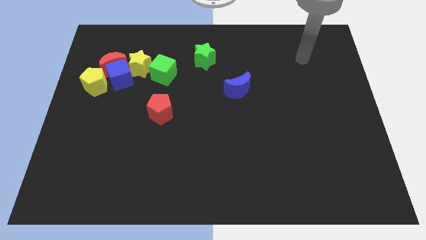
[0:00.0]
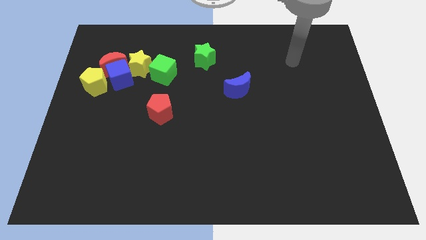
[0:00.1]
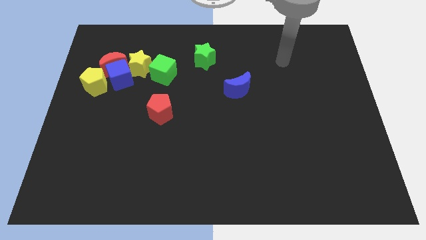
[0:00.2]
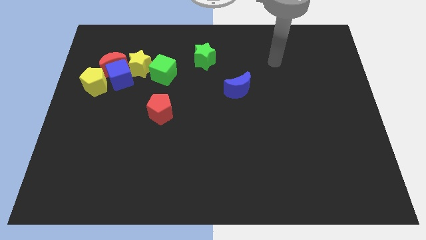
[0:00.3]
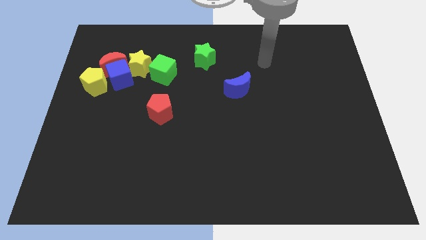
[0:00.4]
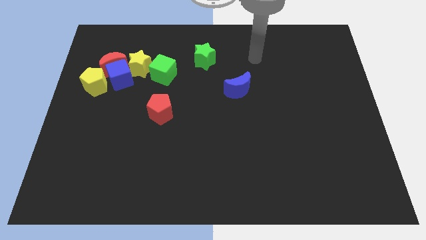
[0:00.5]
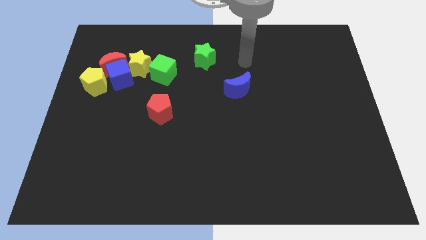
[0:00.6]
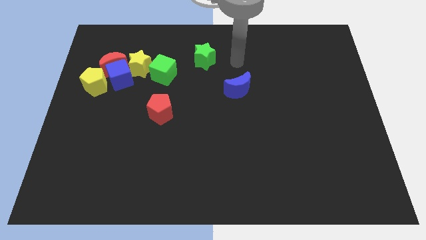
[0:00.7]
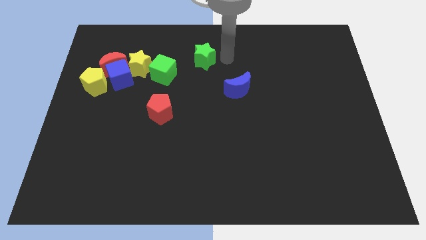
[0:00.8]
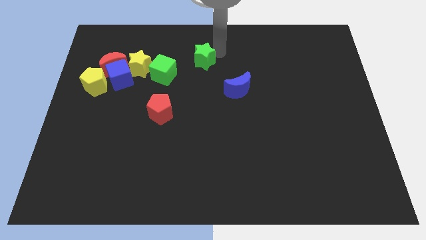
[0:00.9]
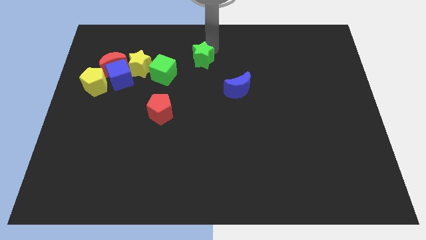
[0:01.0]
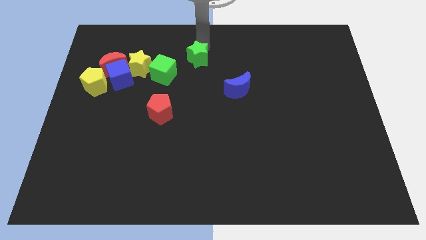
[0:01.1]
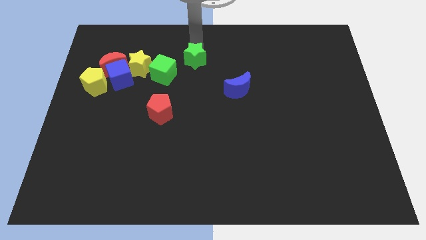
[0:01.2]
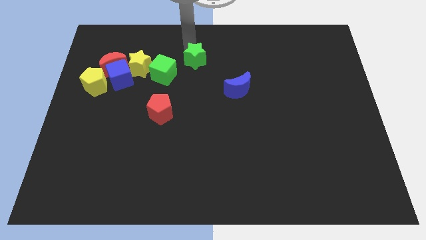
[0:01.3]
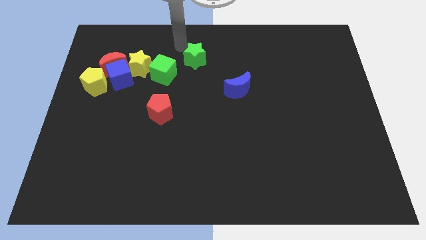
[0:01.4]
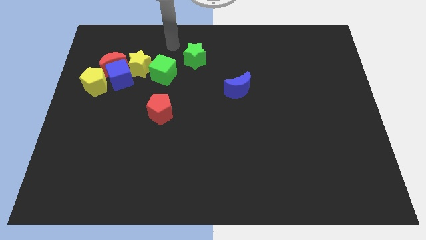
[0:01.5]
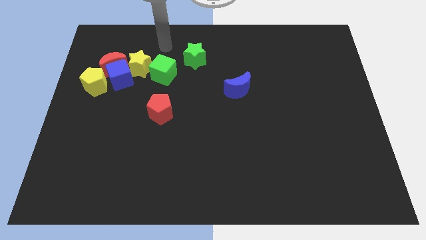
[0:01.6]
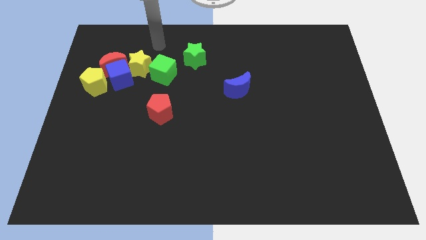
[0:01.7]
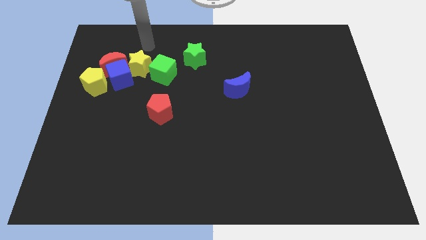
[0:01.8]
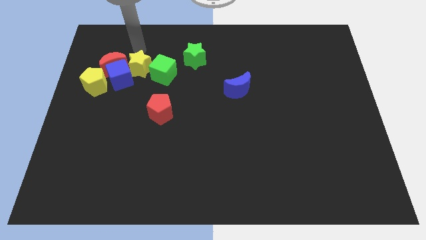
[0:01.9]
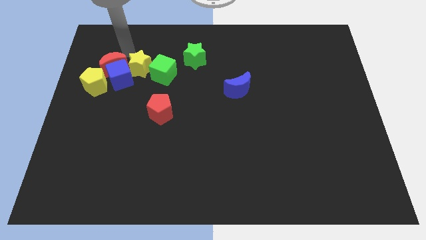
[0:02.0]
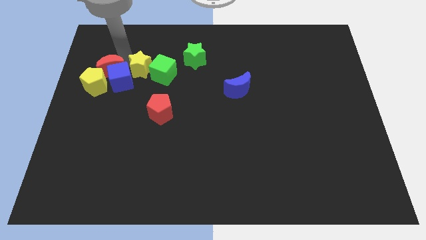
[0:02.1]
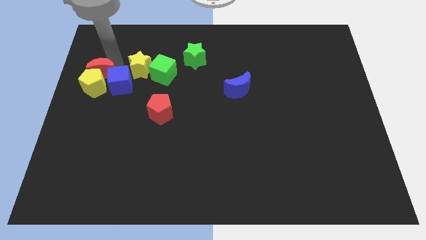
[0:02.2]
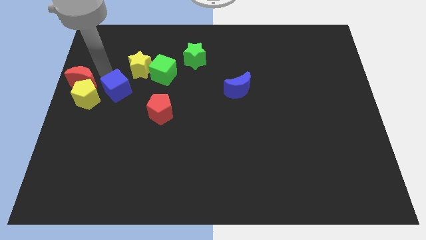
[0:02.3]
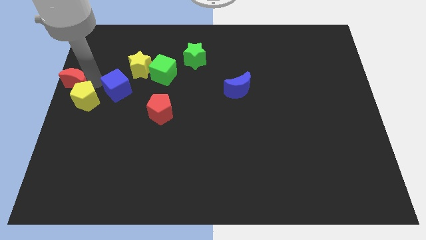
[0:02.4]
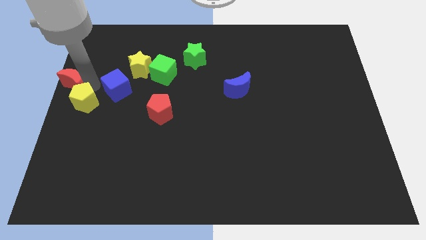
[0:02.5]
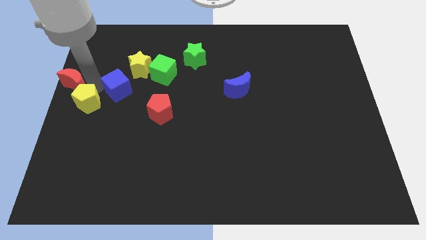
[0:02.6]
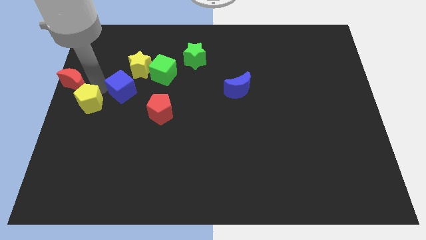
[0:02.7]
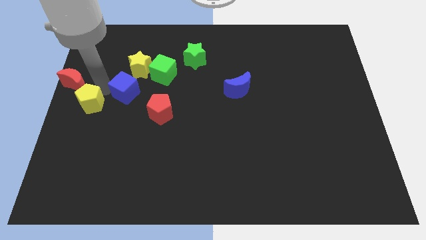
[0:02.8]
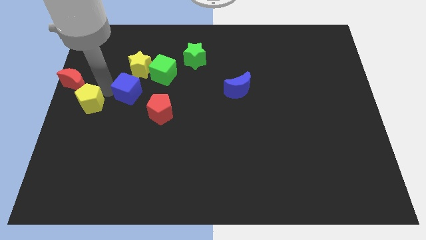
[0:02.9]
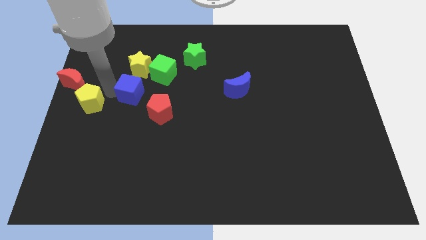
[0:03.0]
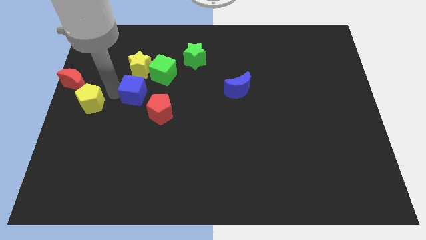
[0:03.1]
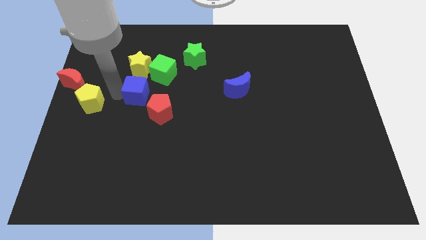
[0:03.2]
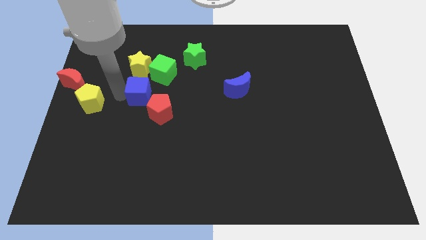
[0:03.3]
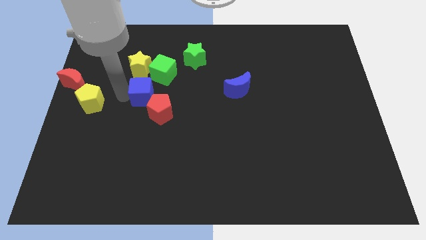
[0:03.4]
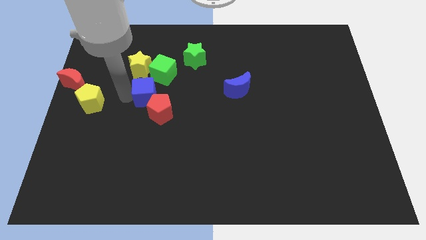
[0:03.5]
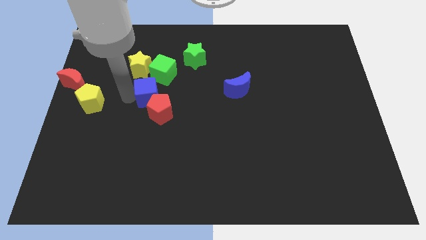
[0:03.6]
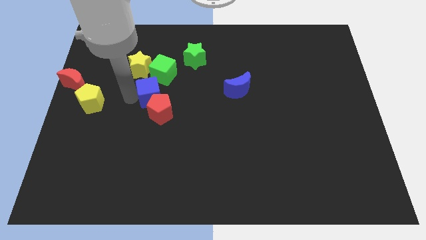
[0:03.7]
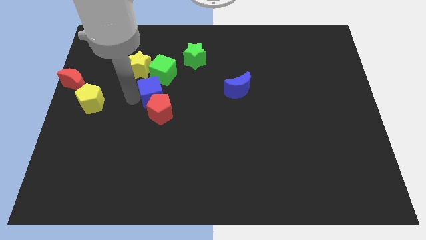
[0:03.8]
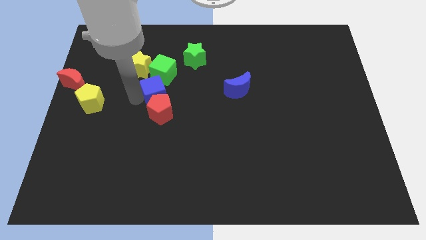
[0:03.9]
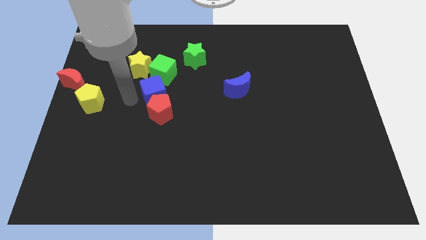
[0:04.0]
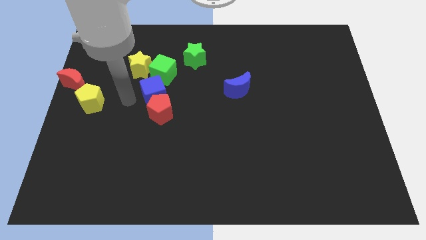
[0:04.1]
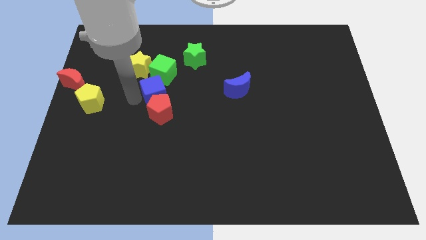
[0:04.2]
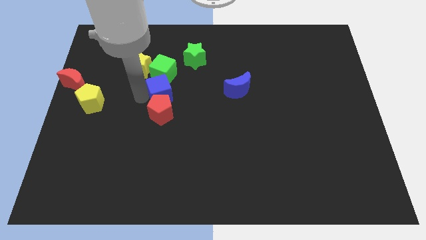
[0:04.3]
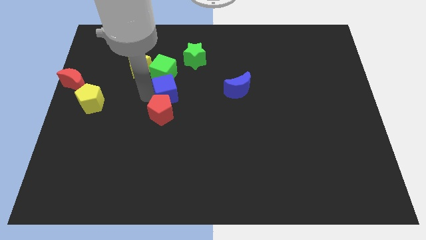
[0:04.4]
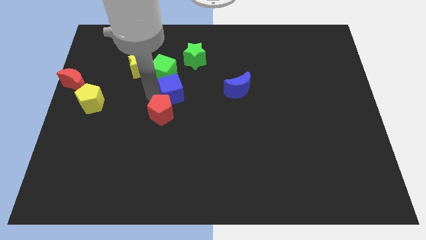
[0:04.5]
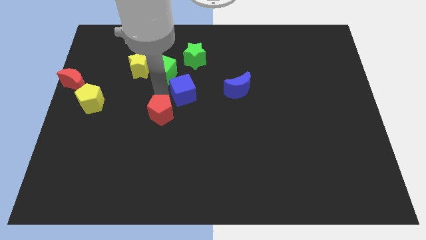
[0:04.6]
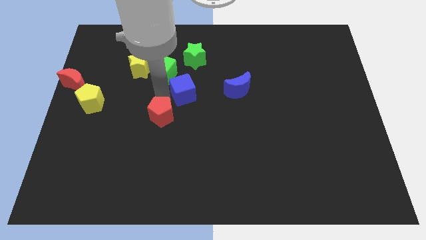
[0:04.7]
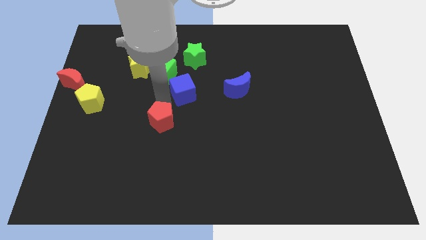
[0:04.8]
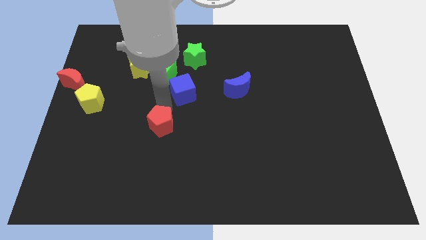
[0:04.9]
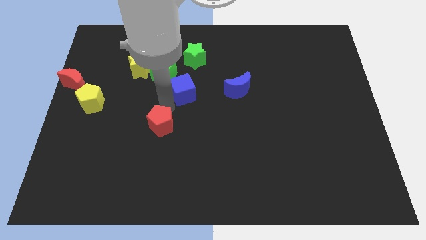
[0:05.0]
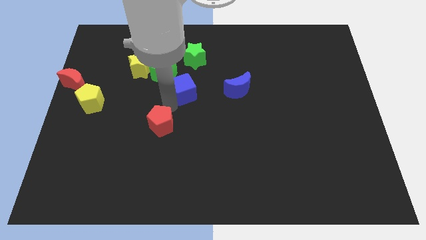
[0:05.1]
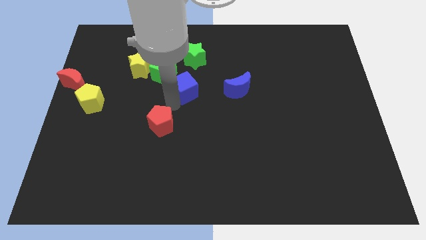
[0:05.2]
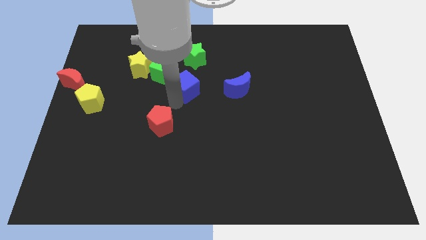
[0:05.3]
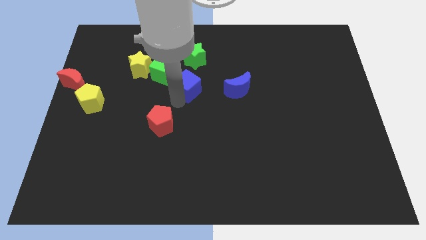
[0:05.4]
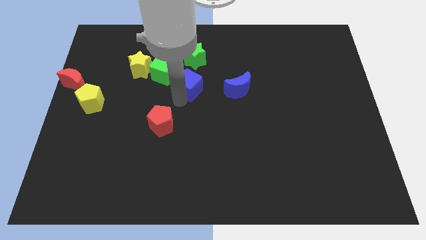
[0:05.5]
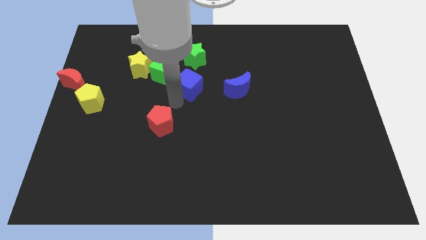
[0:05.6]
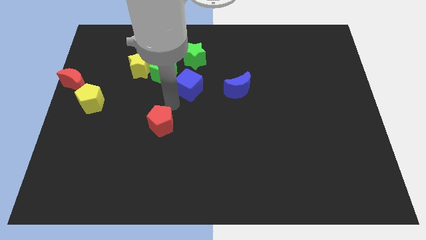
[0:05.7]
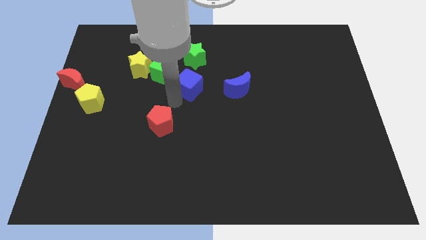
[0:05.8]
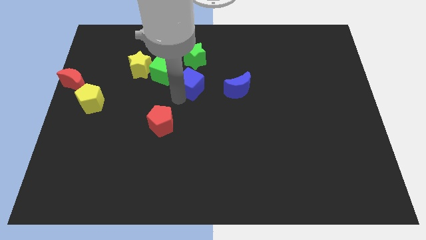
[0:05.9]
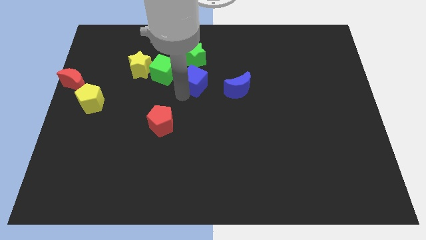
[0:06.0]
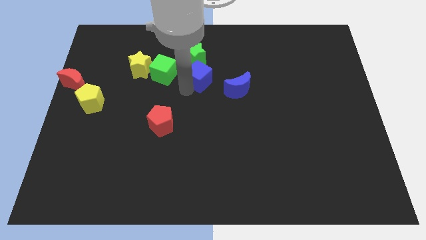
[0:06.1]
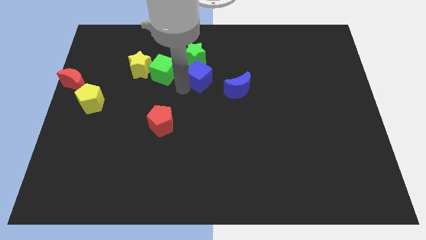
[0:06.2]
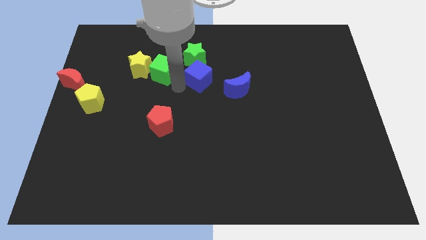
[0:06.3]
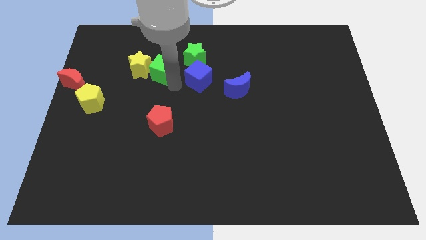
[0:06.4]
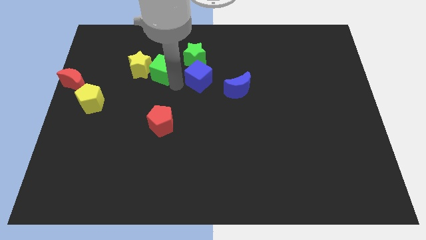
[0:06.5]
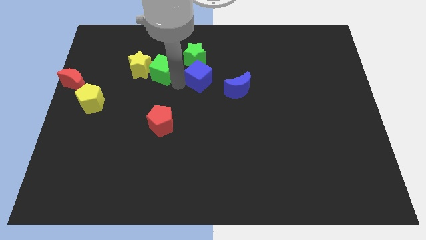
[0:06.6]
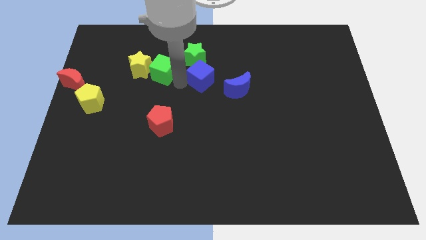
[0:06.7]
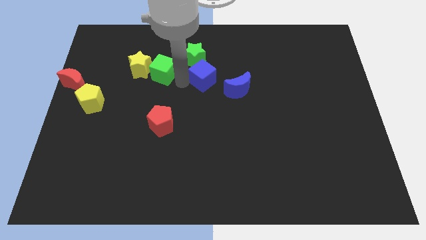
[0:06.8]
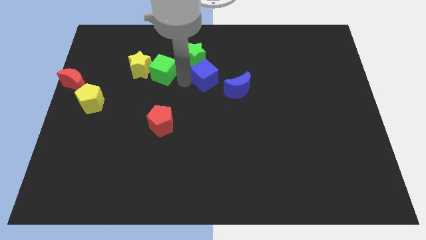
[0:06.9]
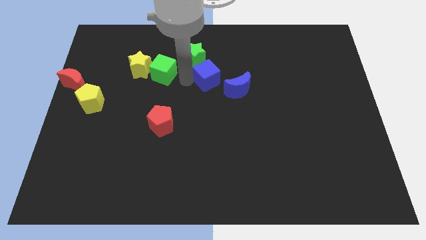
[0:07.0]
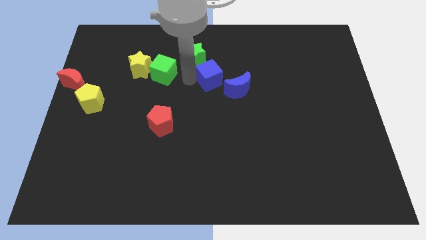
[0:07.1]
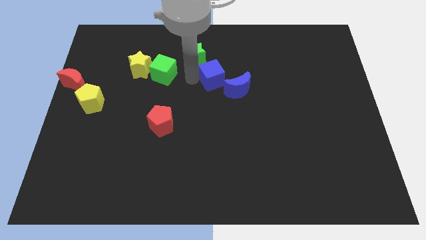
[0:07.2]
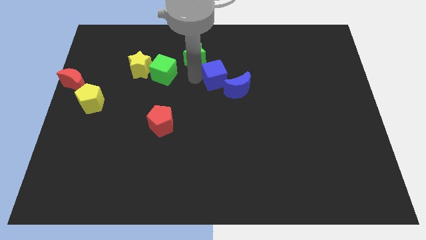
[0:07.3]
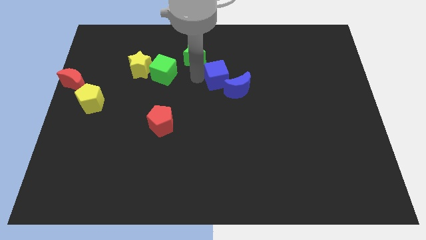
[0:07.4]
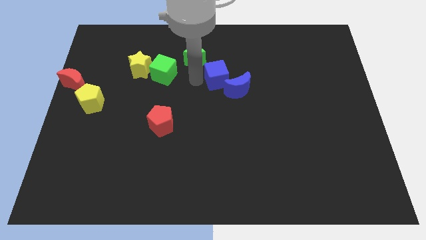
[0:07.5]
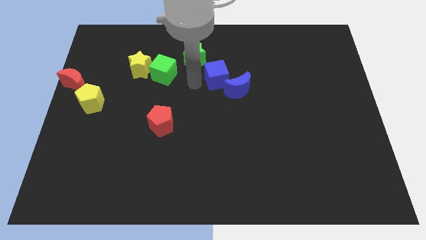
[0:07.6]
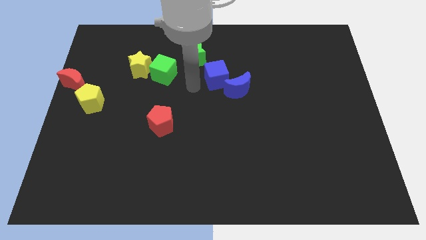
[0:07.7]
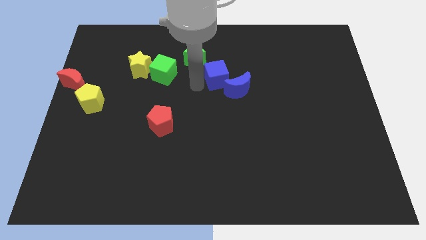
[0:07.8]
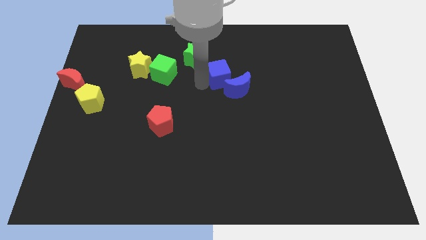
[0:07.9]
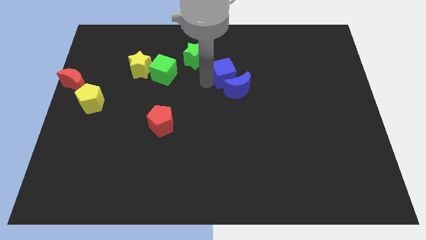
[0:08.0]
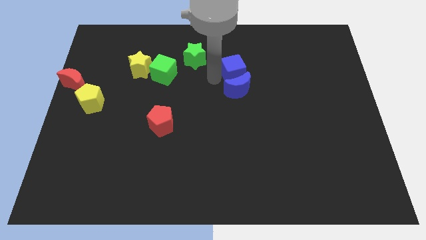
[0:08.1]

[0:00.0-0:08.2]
slide the blue cube to the top right side of the blue moon
